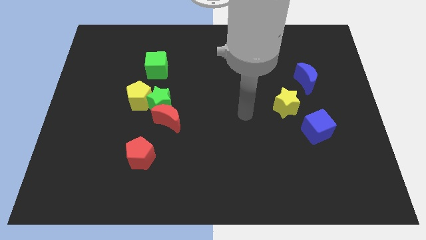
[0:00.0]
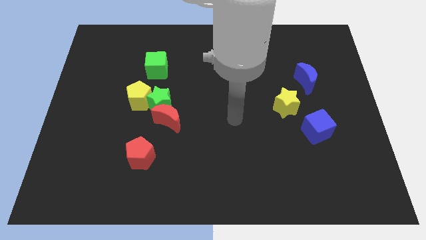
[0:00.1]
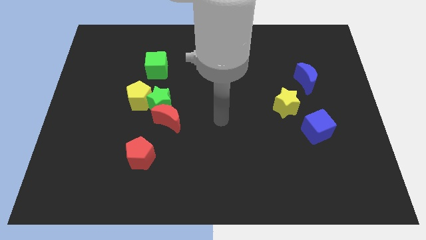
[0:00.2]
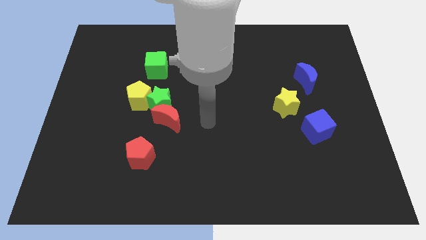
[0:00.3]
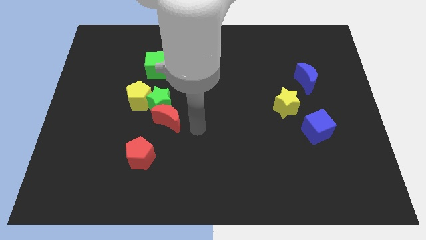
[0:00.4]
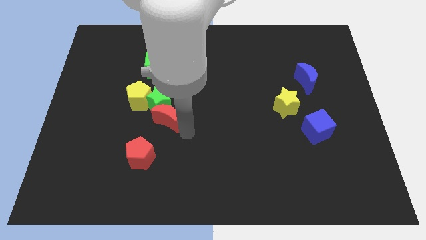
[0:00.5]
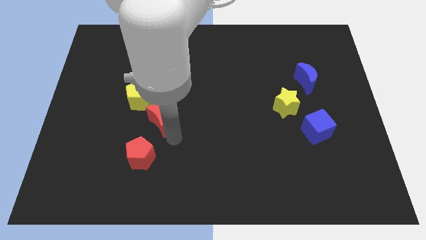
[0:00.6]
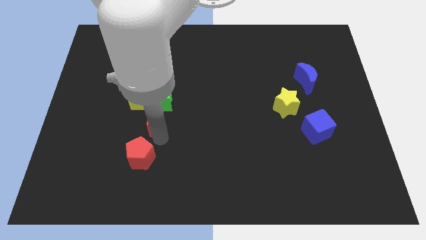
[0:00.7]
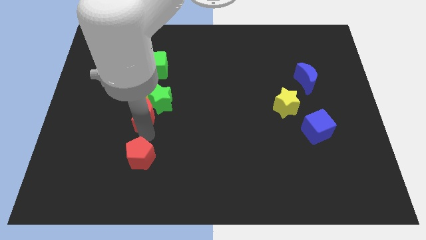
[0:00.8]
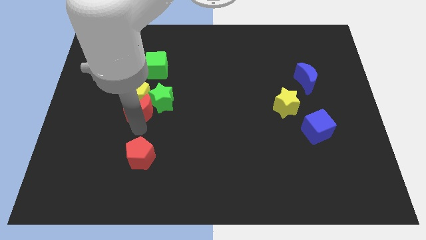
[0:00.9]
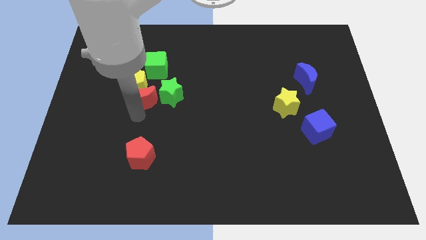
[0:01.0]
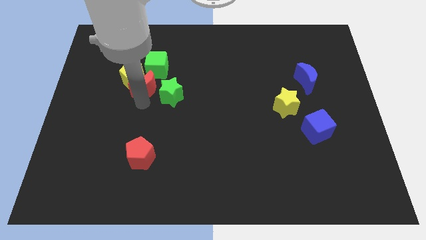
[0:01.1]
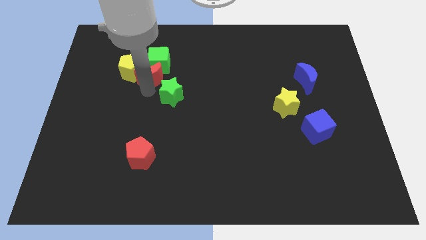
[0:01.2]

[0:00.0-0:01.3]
move the green star away from the red moon and yellow pentagon

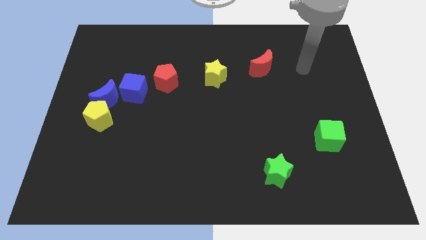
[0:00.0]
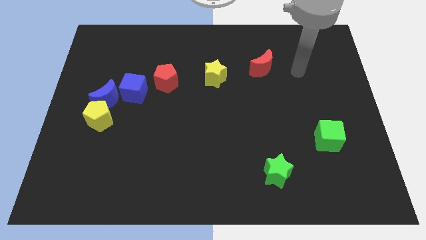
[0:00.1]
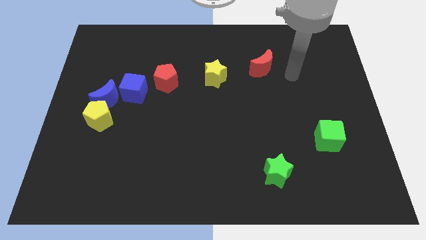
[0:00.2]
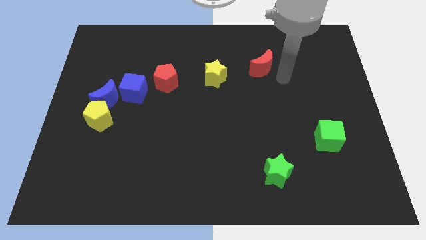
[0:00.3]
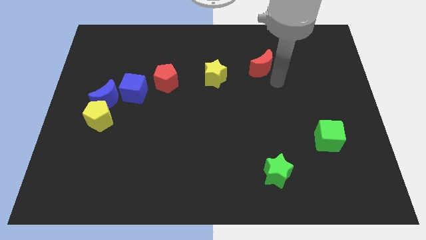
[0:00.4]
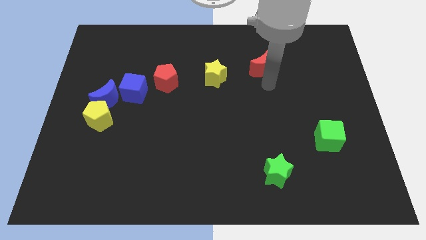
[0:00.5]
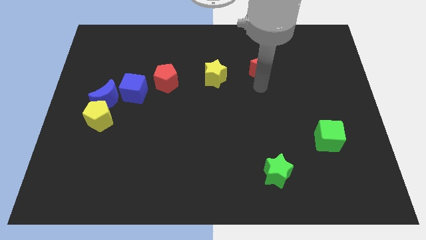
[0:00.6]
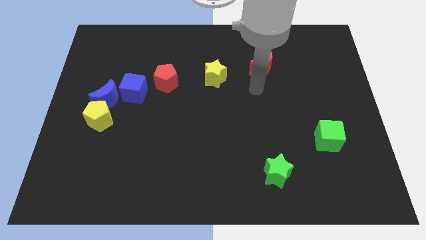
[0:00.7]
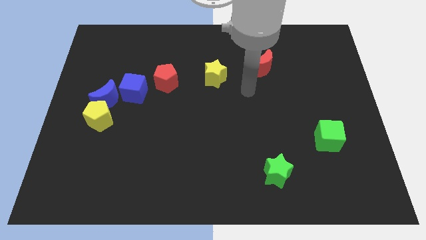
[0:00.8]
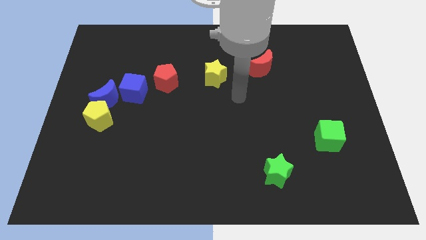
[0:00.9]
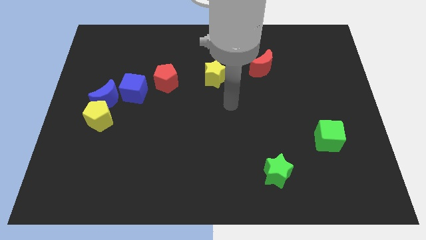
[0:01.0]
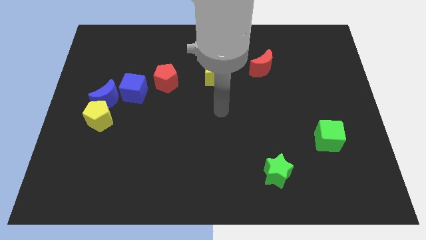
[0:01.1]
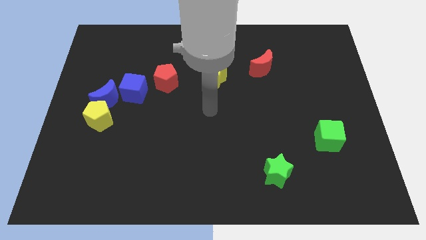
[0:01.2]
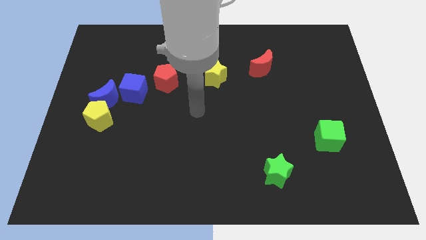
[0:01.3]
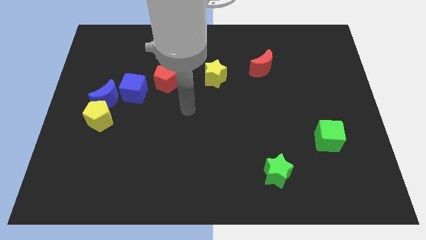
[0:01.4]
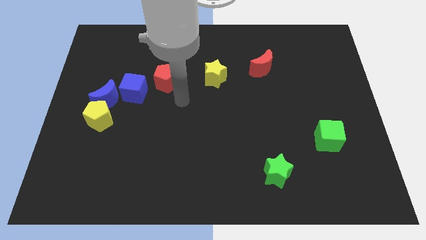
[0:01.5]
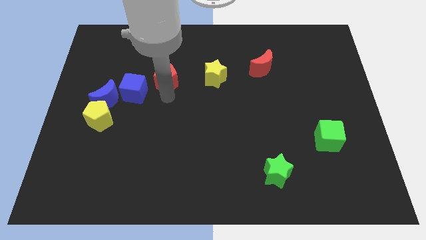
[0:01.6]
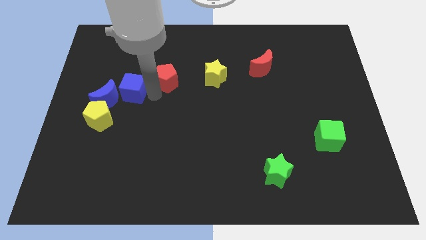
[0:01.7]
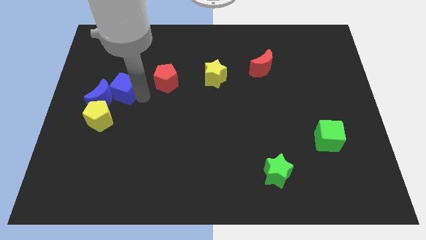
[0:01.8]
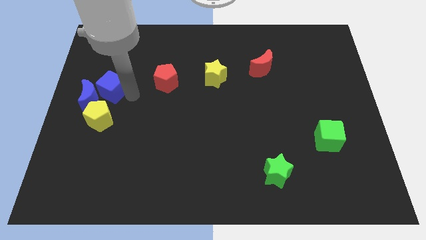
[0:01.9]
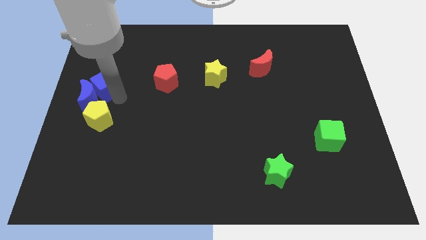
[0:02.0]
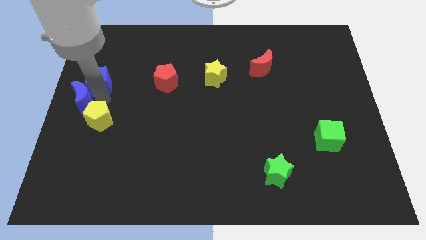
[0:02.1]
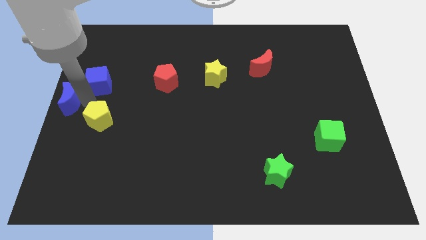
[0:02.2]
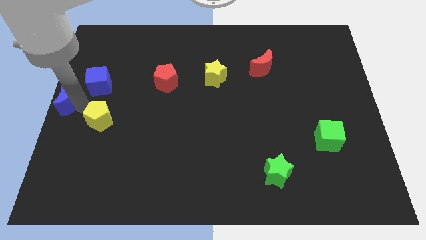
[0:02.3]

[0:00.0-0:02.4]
move the yellow pentagon away from the blue moon

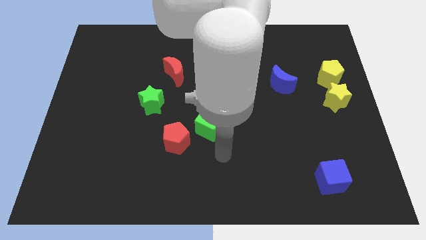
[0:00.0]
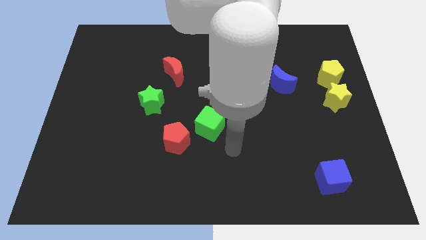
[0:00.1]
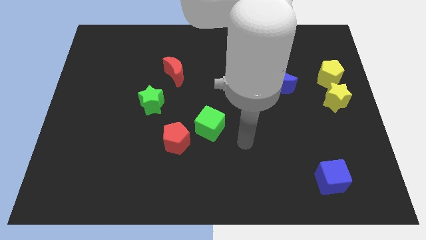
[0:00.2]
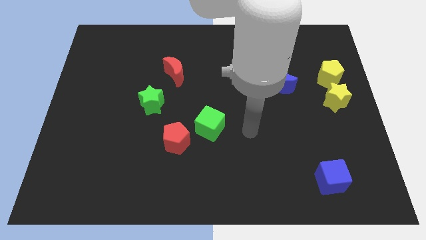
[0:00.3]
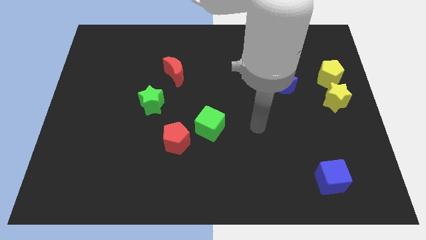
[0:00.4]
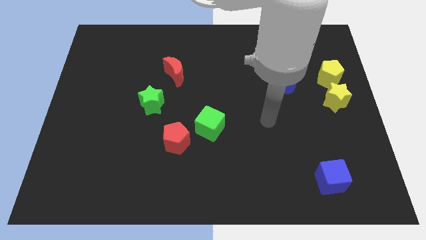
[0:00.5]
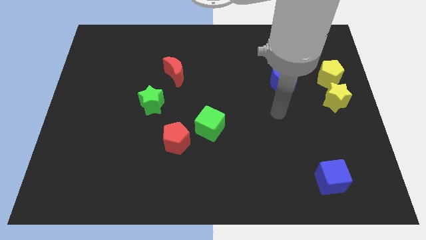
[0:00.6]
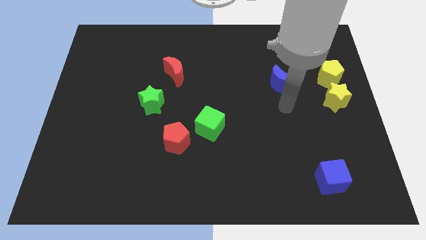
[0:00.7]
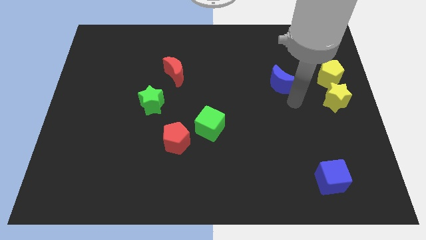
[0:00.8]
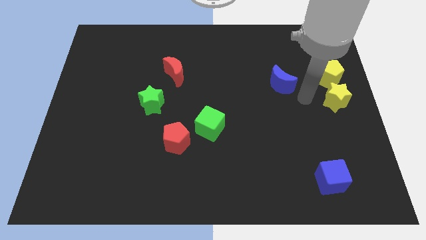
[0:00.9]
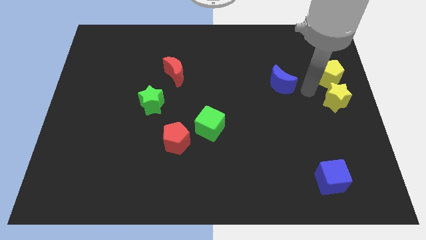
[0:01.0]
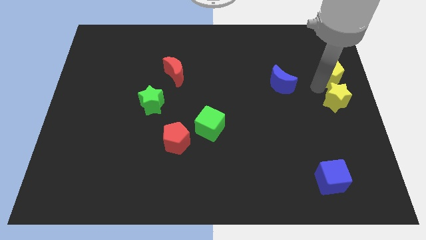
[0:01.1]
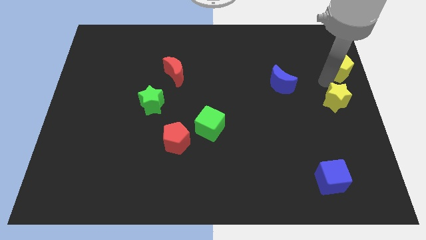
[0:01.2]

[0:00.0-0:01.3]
move the yellow star away from the yellow pentagon

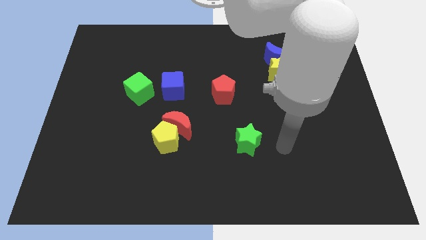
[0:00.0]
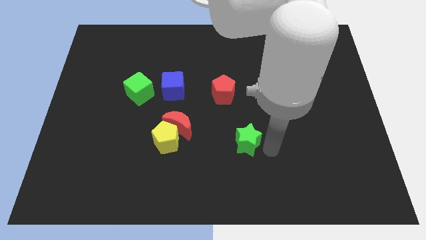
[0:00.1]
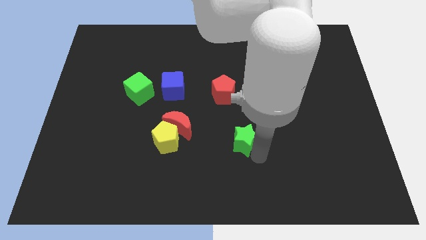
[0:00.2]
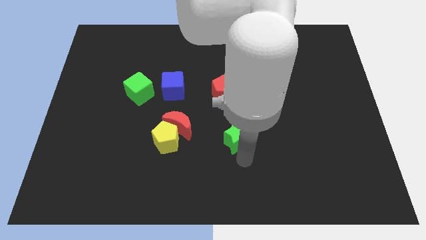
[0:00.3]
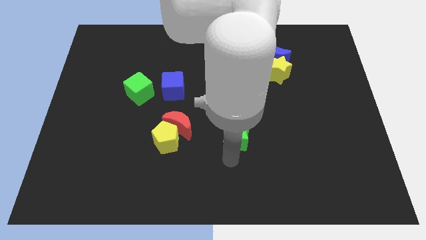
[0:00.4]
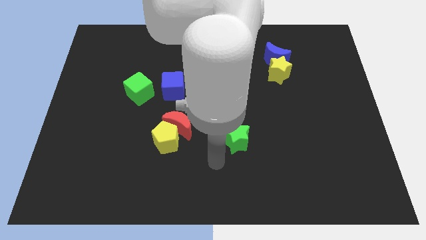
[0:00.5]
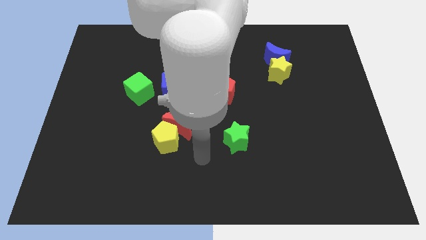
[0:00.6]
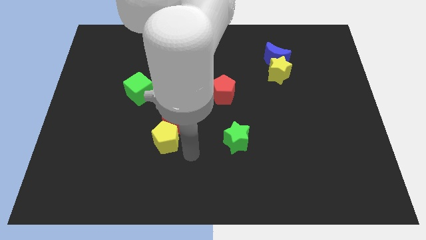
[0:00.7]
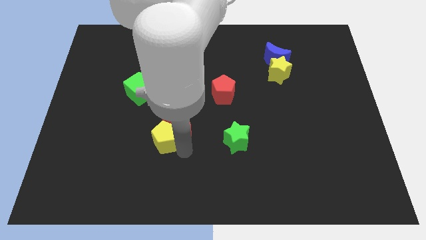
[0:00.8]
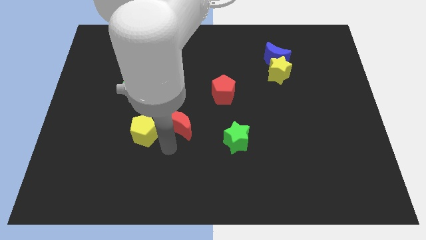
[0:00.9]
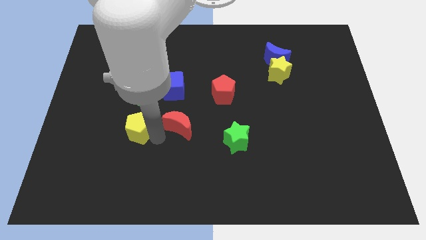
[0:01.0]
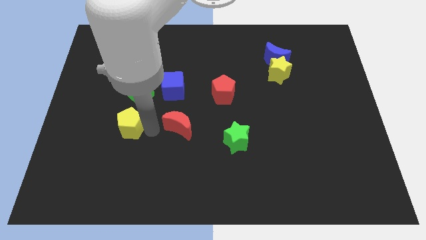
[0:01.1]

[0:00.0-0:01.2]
pull the red moon apart from the yellow pentagon

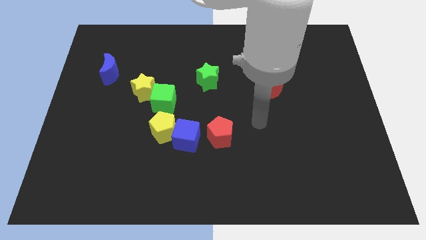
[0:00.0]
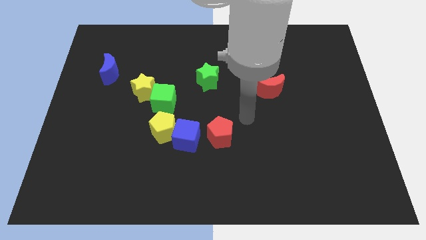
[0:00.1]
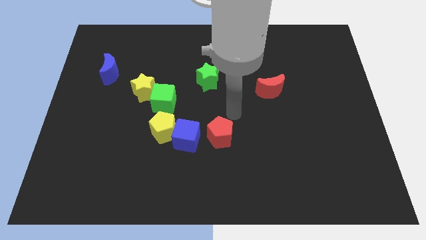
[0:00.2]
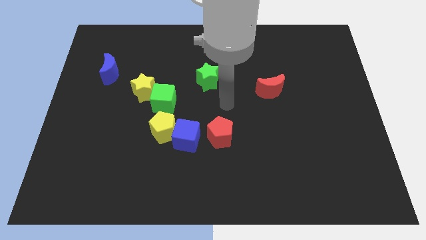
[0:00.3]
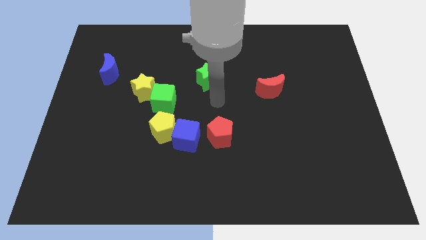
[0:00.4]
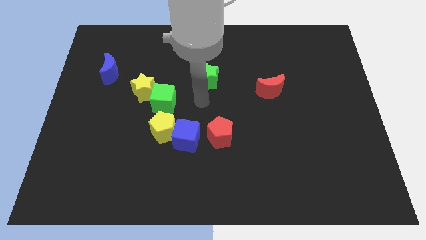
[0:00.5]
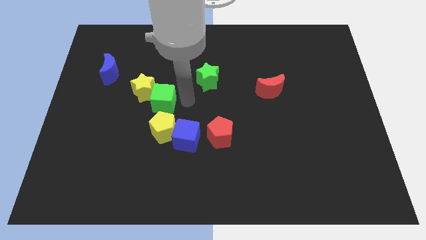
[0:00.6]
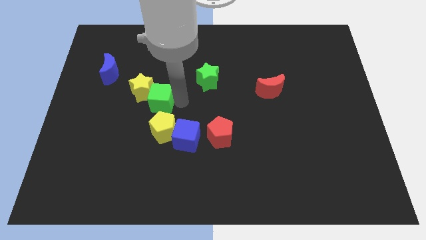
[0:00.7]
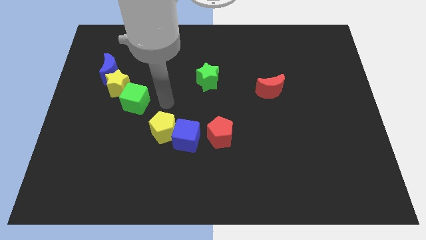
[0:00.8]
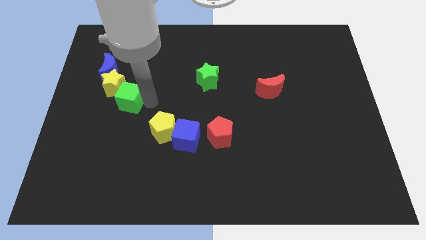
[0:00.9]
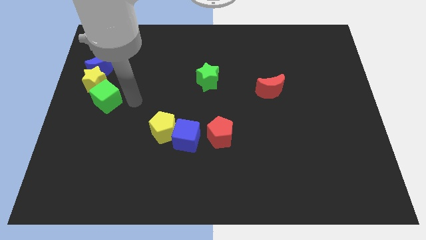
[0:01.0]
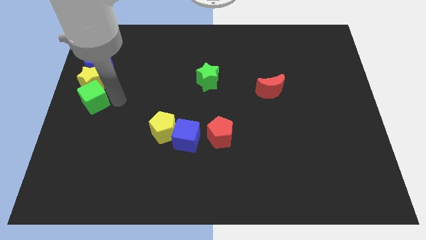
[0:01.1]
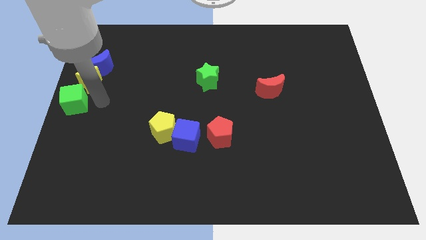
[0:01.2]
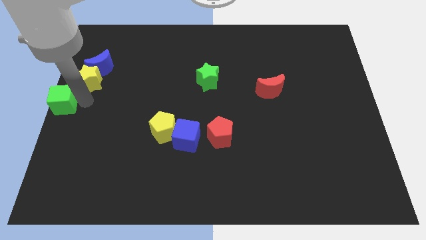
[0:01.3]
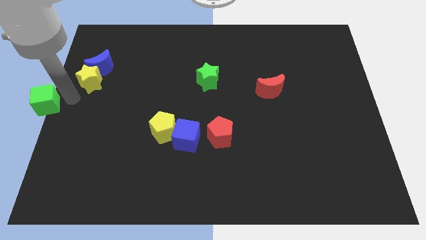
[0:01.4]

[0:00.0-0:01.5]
move the yellow star away from the green cube

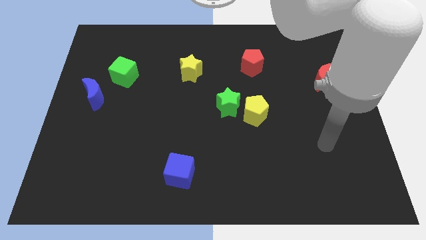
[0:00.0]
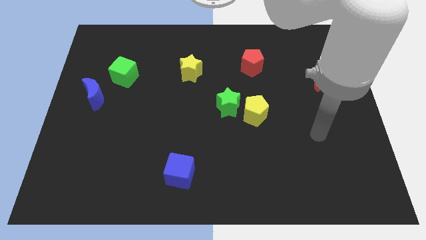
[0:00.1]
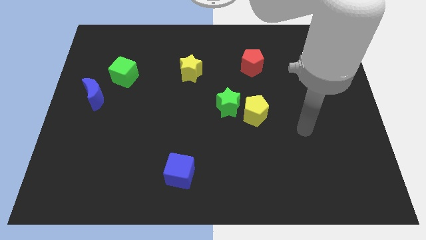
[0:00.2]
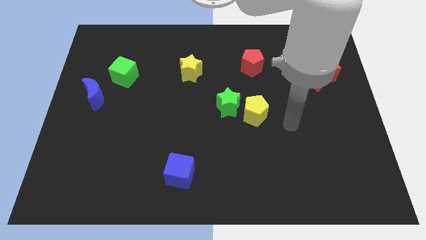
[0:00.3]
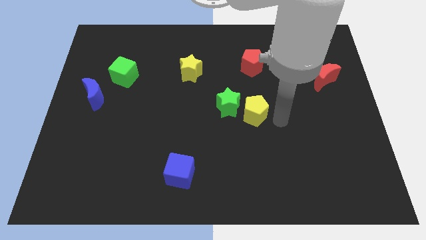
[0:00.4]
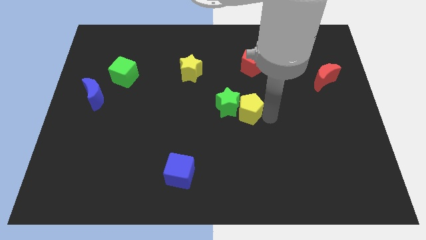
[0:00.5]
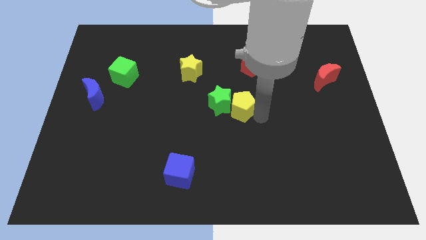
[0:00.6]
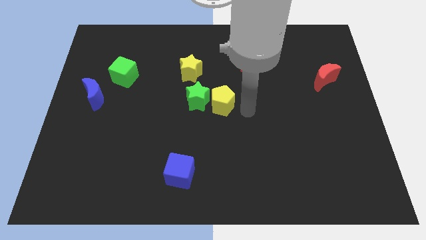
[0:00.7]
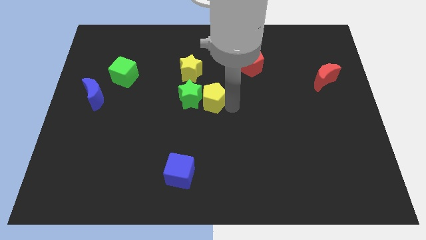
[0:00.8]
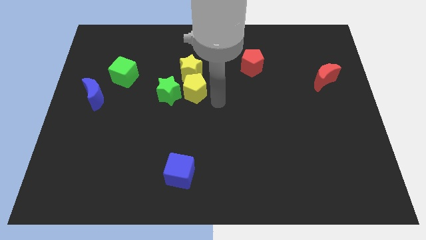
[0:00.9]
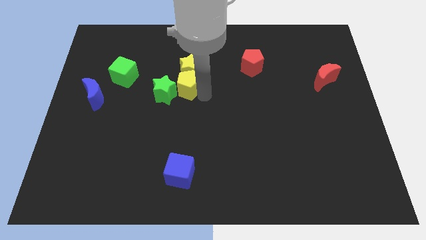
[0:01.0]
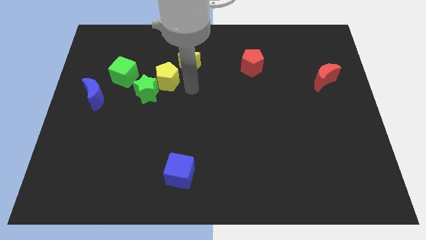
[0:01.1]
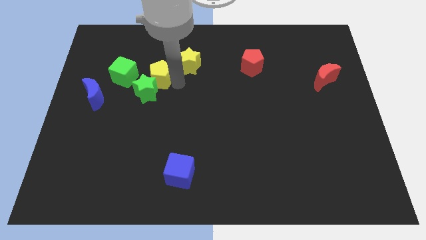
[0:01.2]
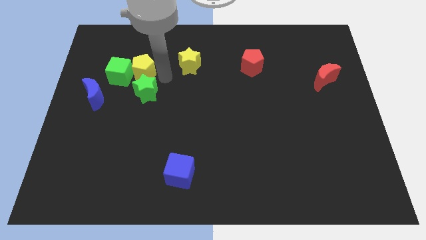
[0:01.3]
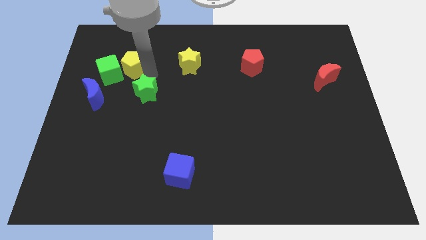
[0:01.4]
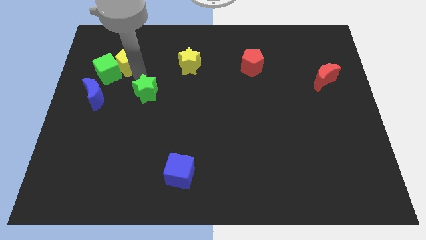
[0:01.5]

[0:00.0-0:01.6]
pull the green star apart from the yellow pentagon
